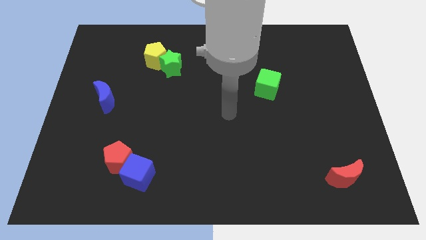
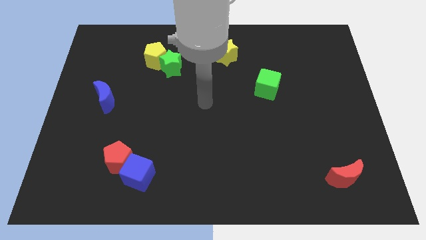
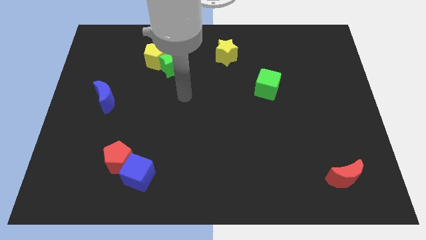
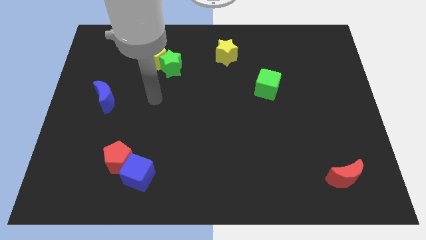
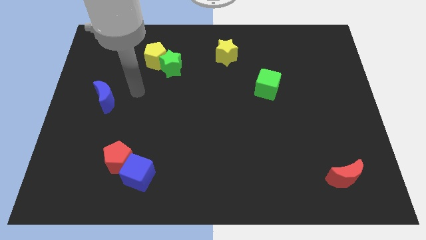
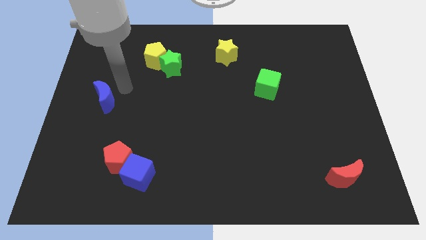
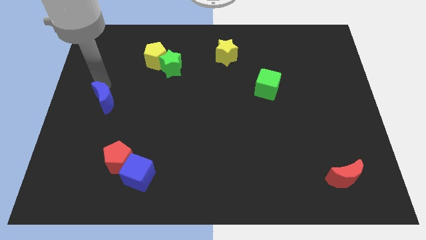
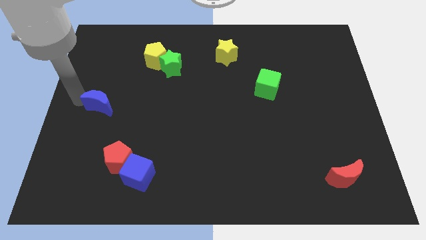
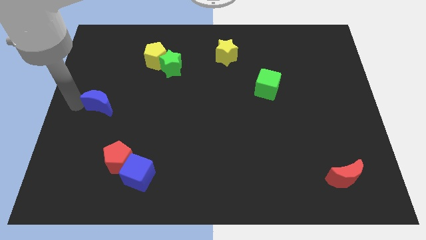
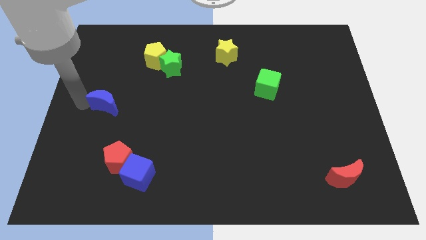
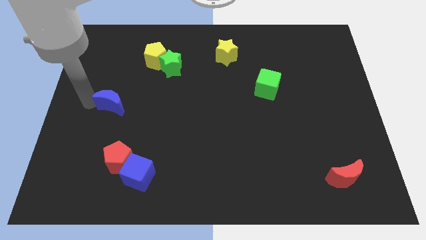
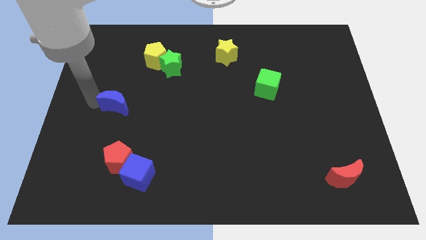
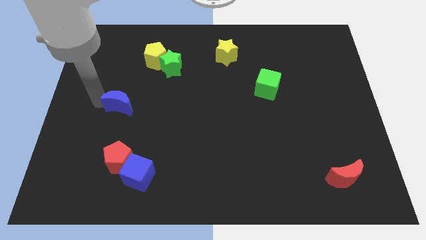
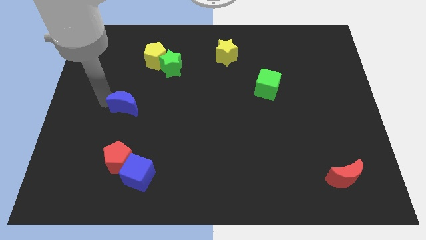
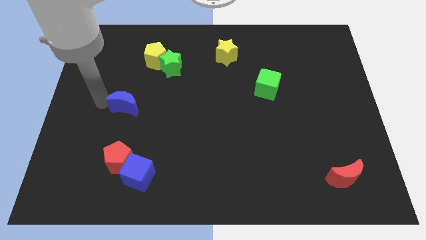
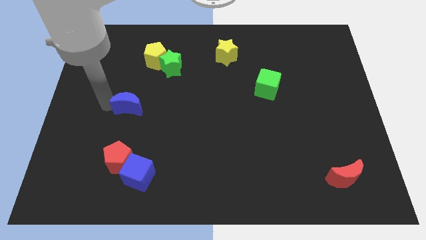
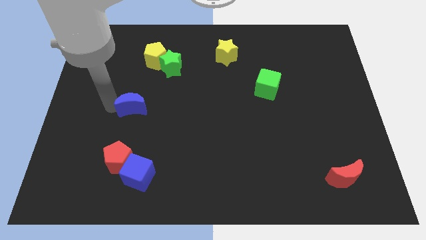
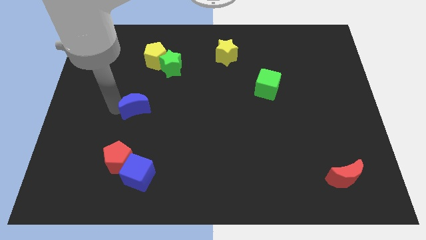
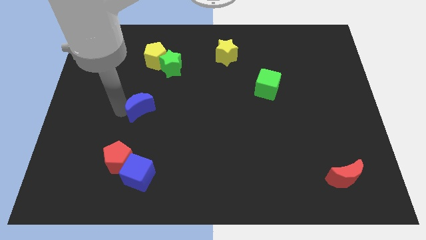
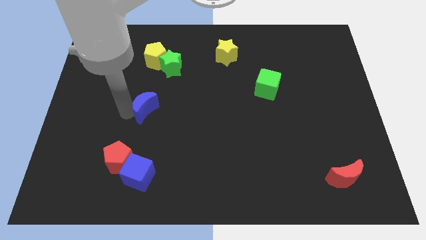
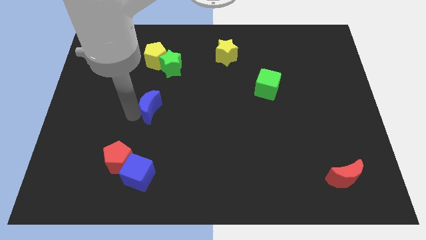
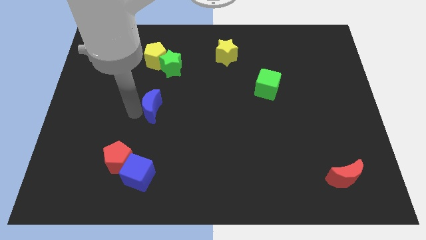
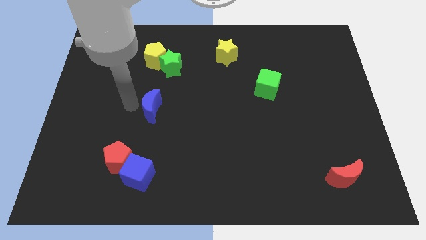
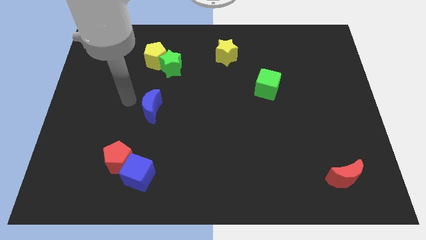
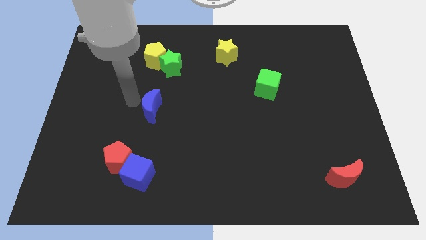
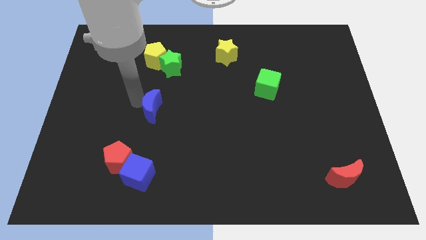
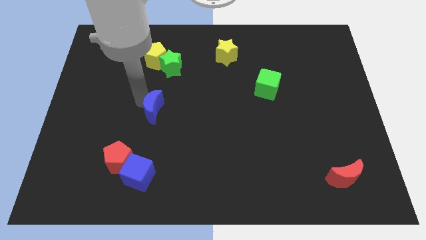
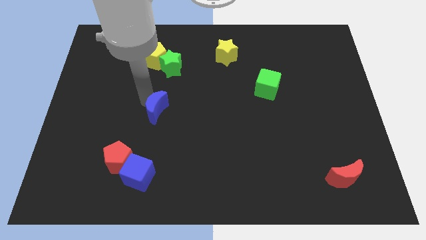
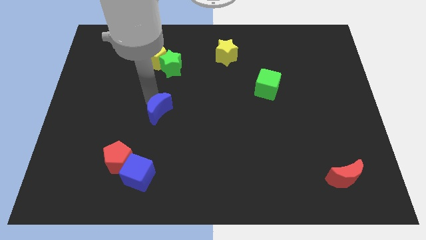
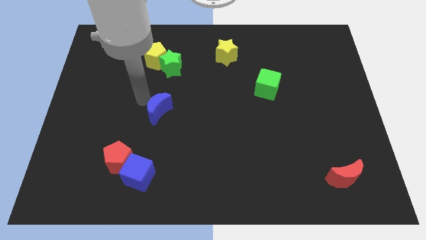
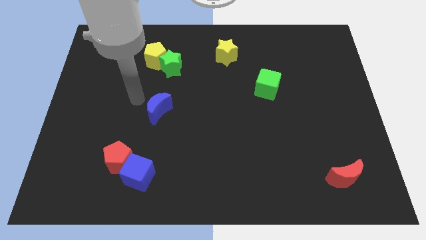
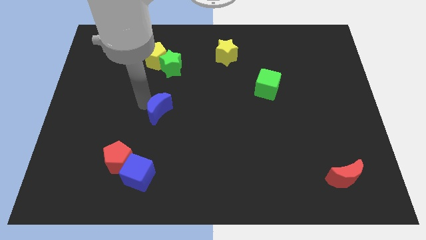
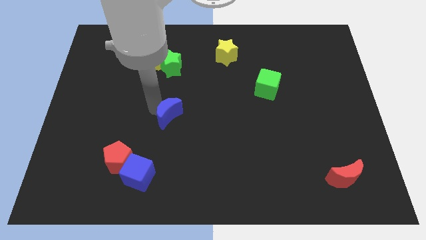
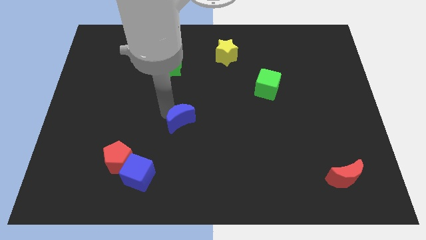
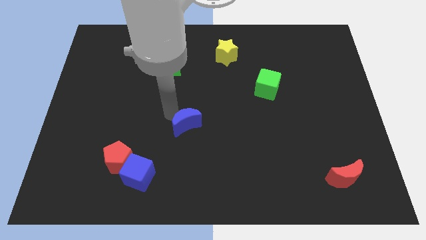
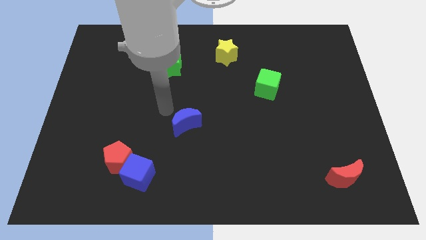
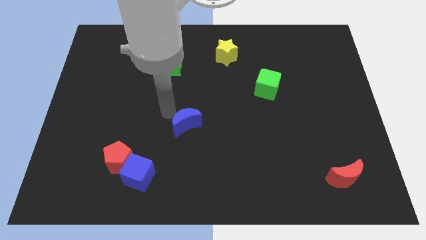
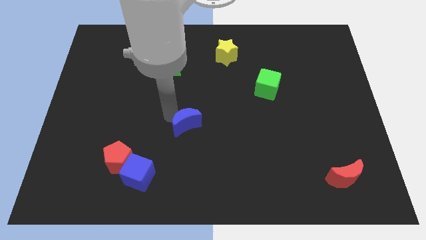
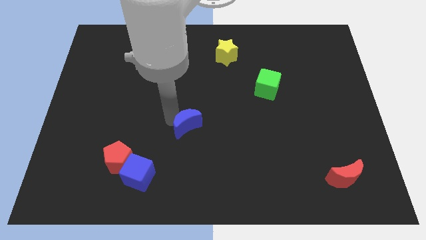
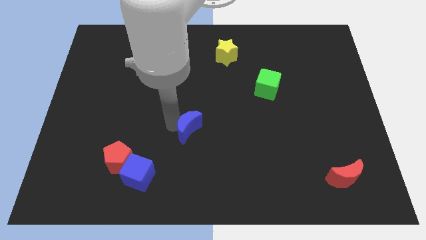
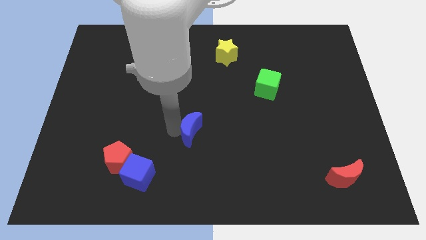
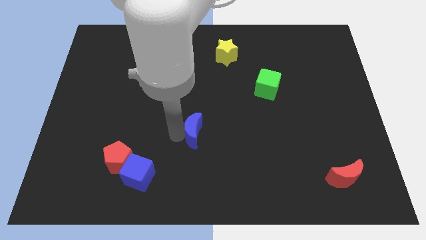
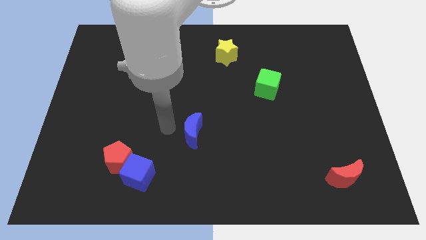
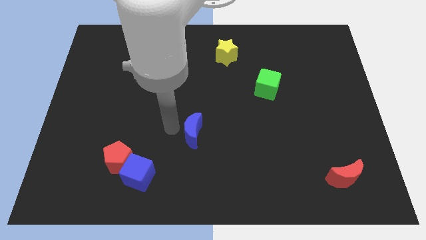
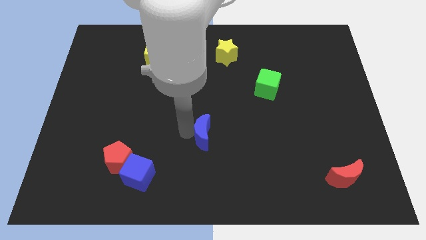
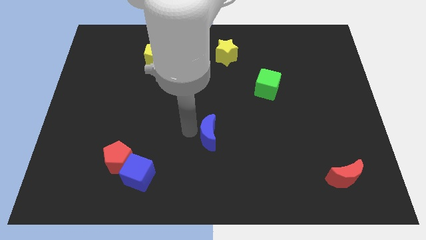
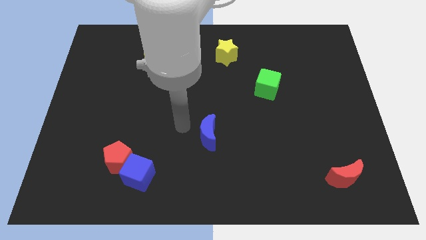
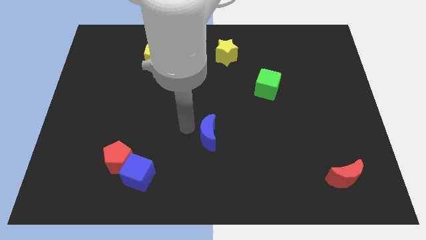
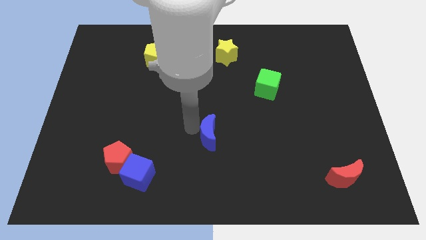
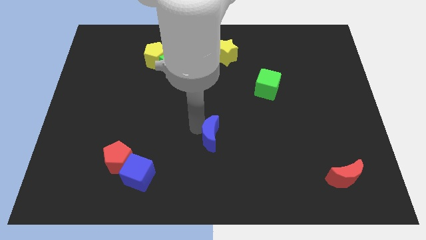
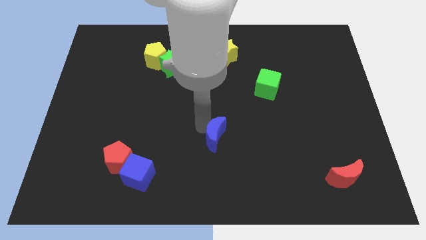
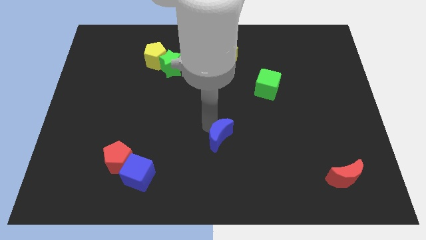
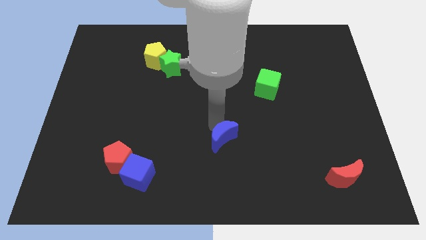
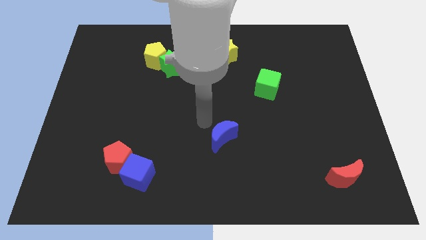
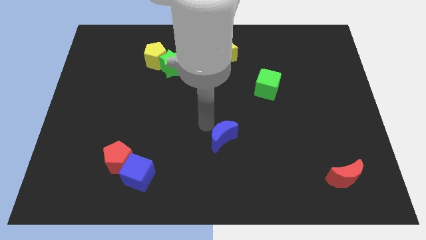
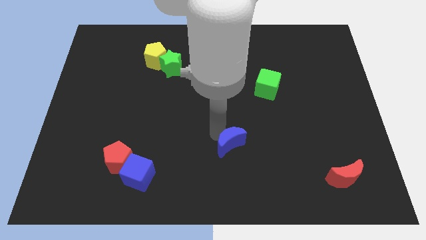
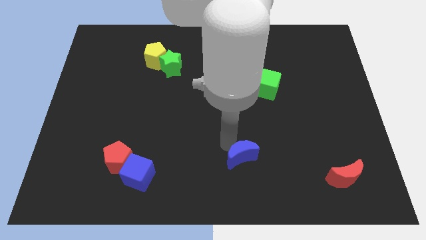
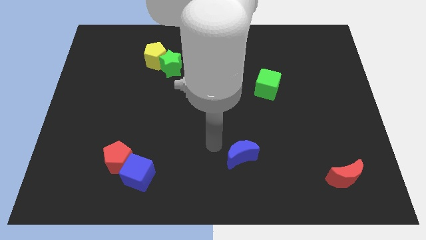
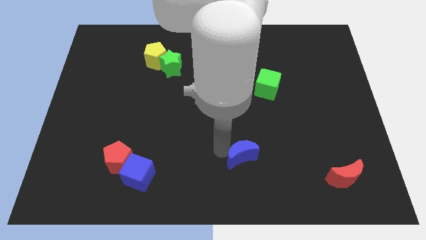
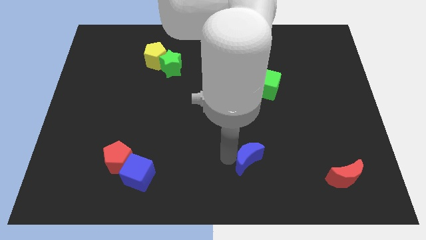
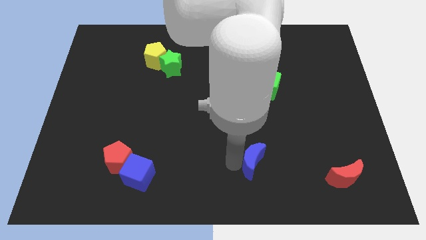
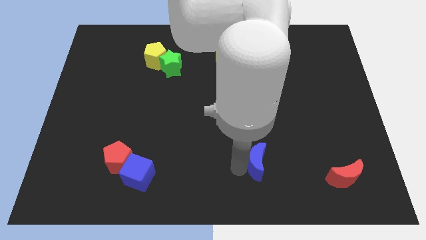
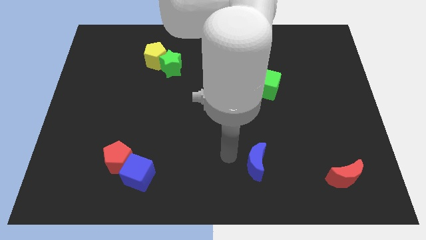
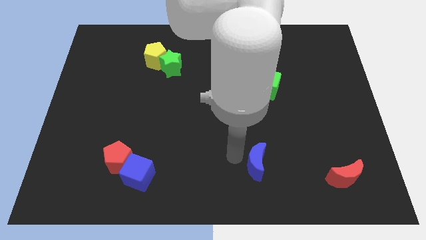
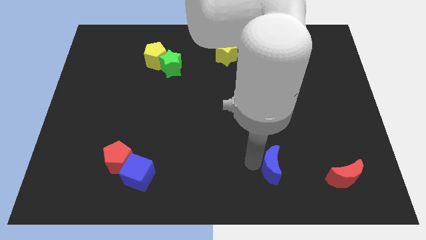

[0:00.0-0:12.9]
push the blue moon to the left of the red moon
